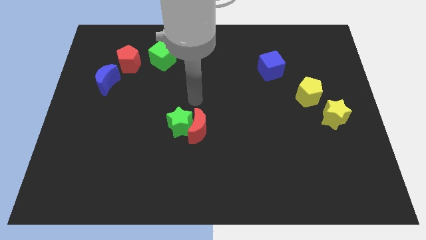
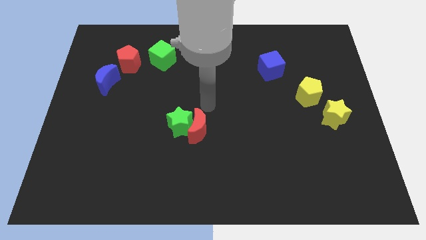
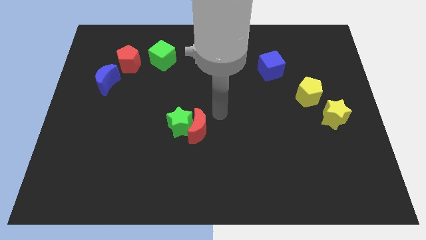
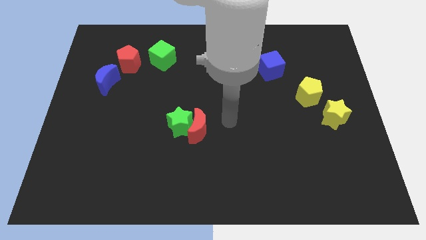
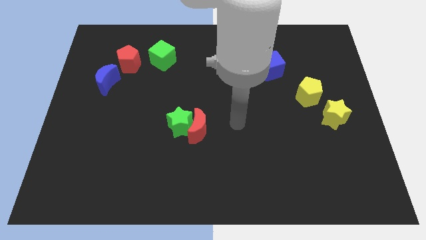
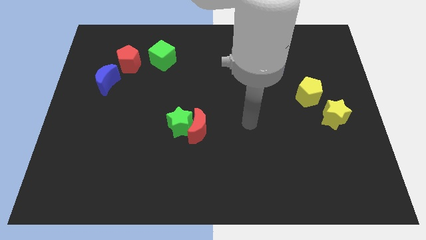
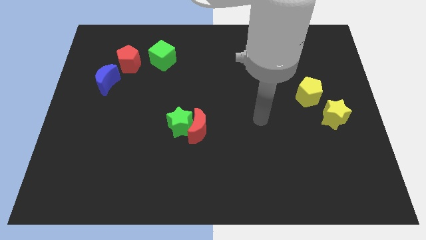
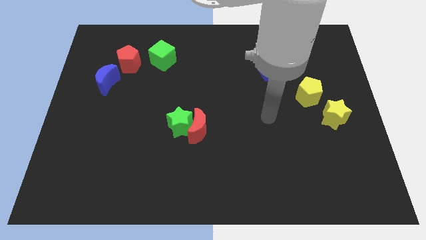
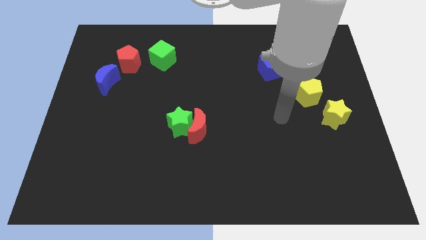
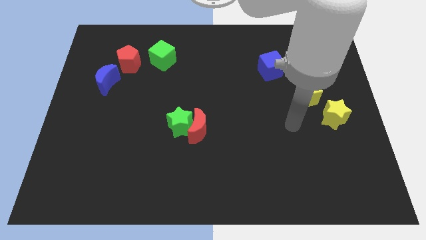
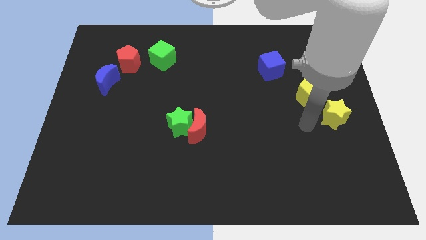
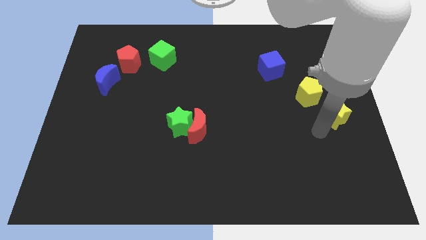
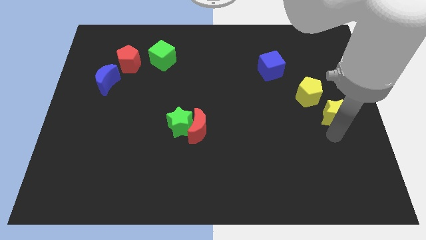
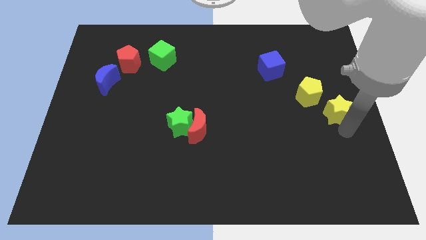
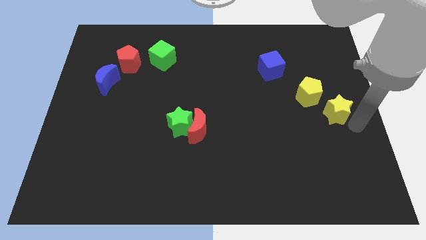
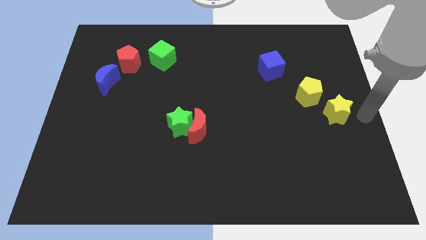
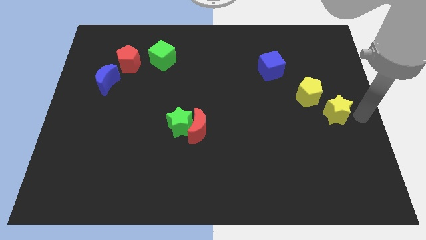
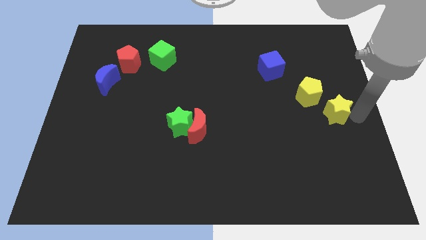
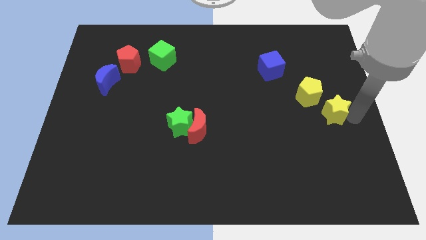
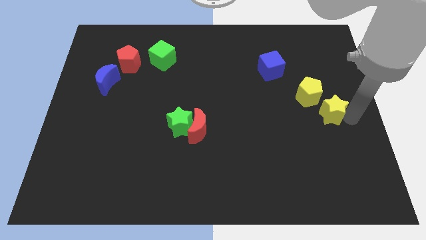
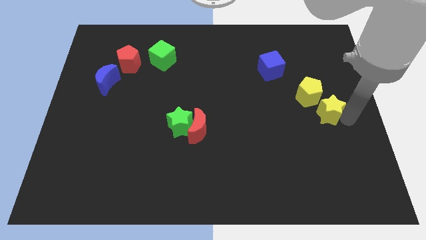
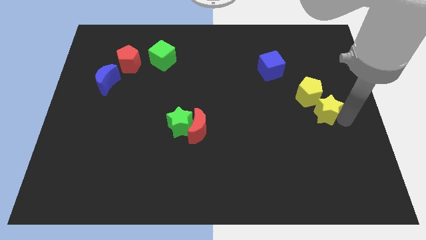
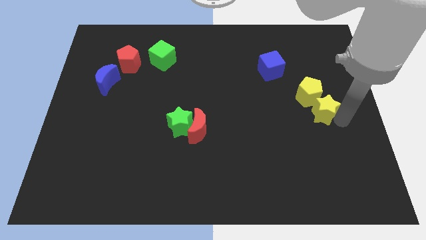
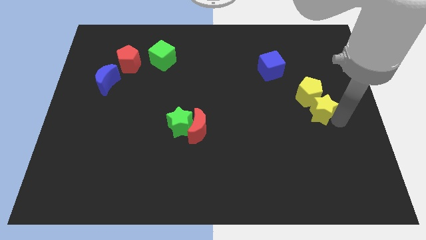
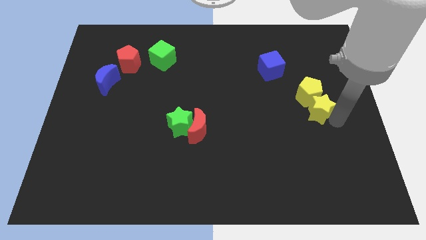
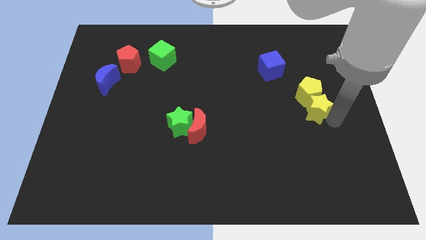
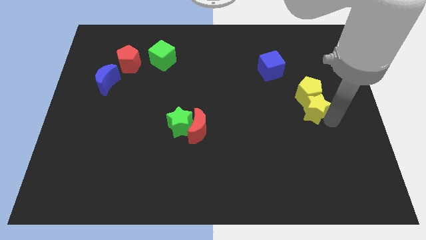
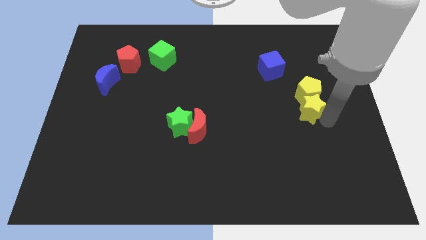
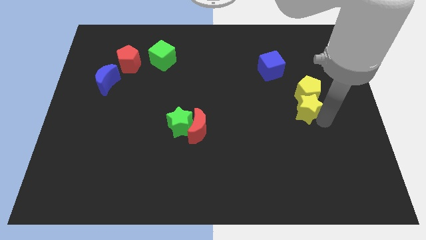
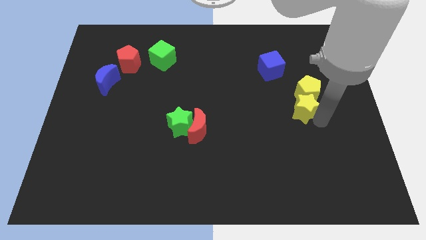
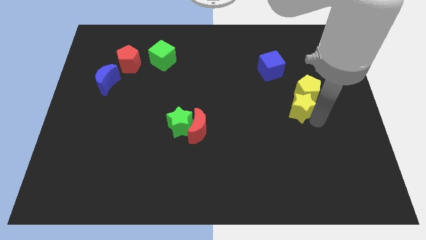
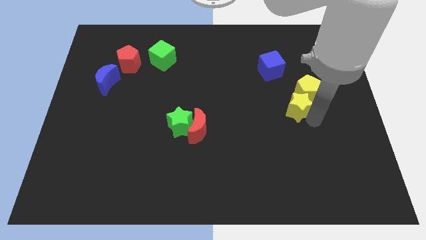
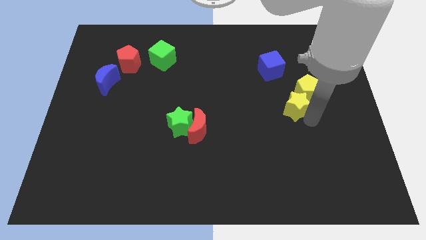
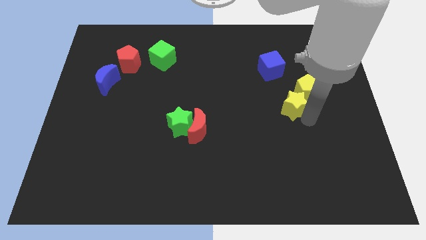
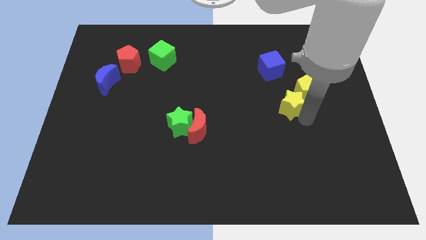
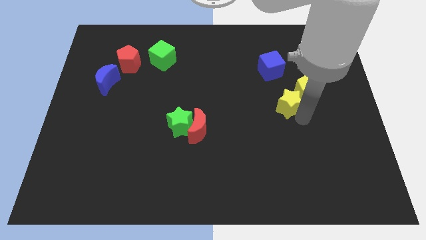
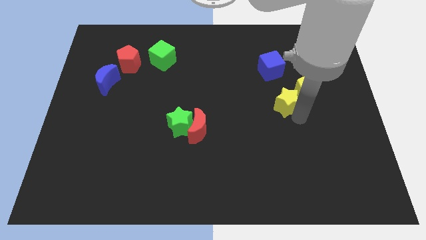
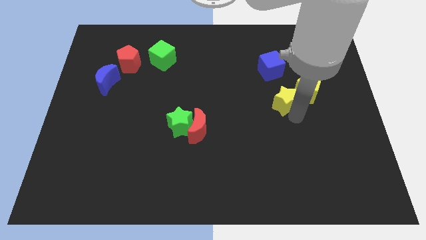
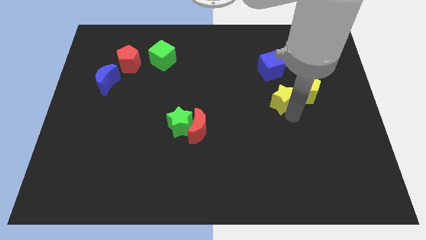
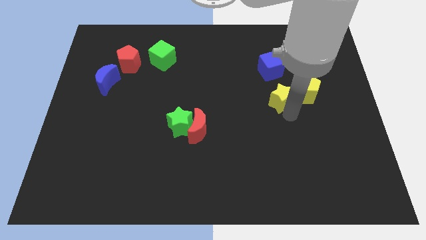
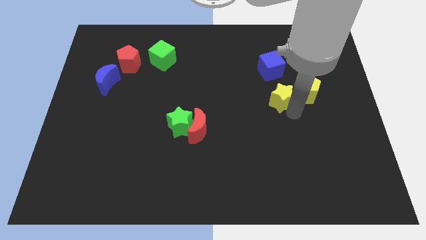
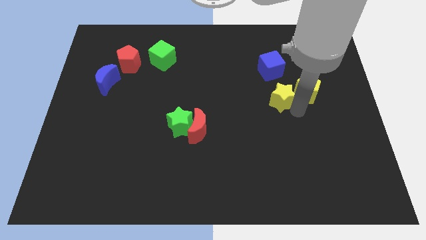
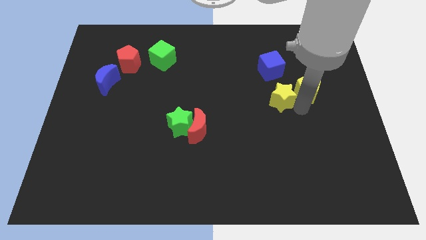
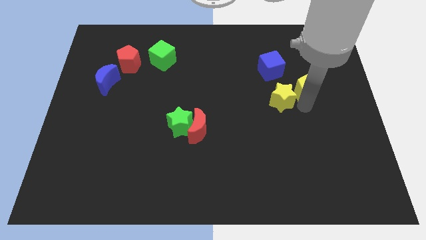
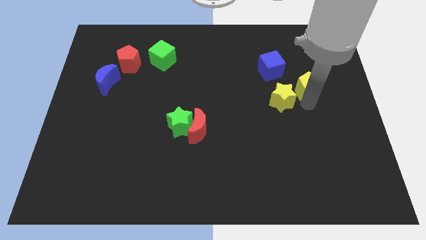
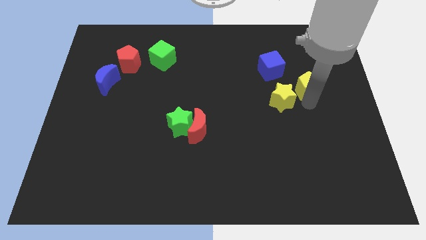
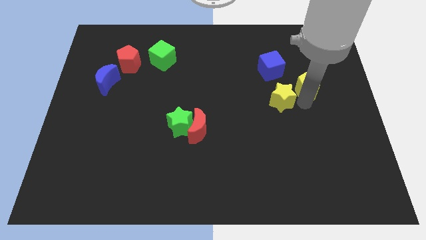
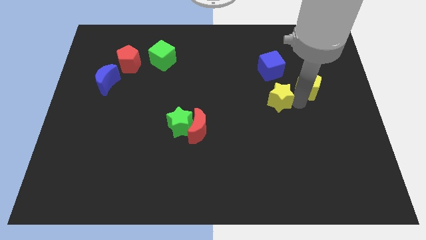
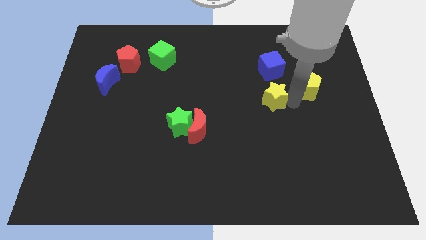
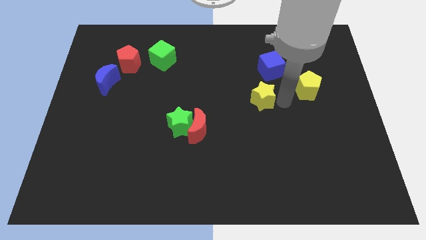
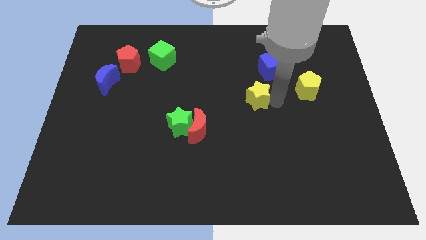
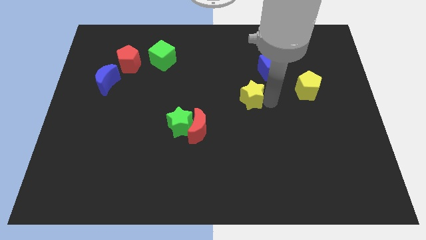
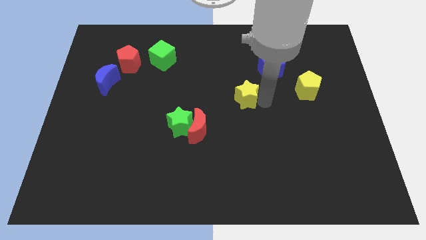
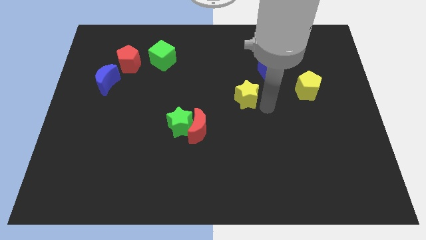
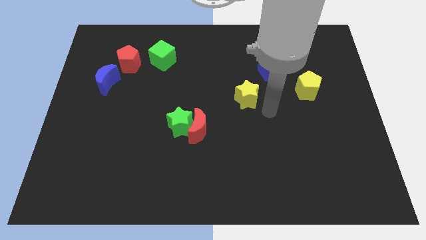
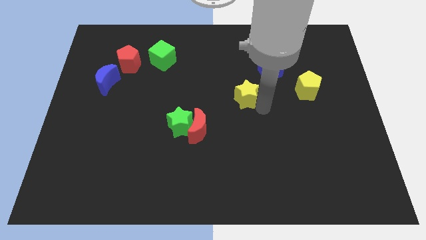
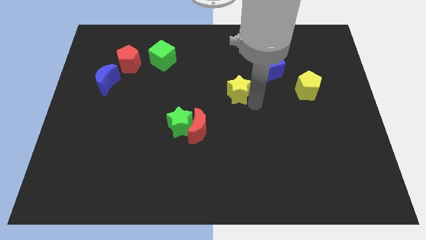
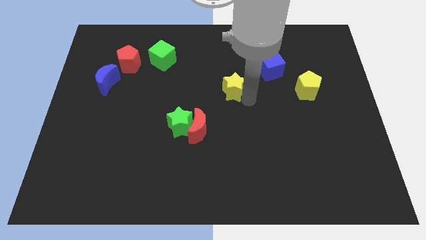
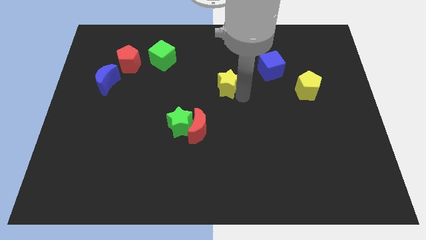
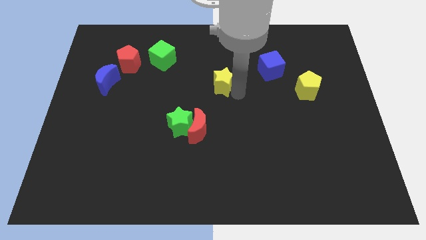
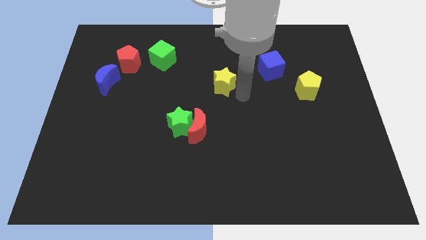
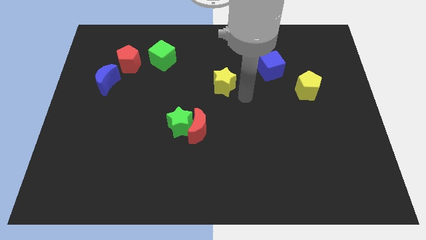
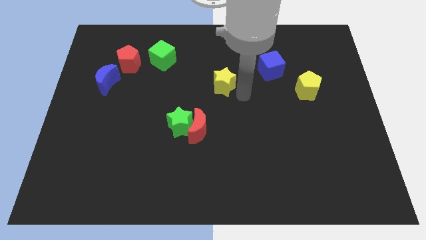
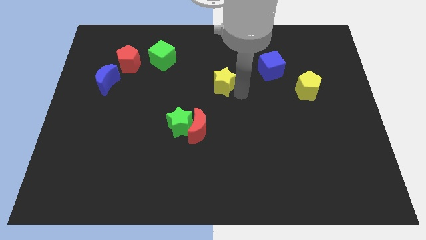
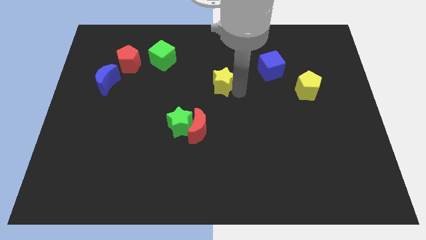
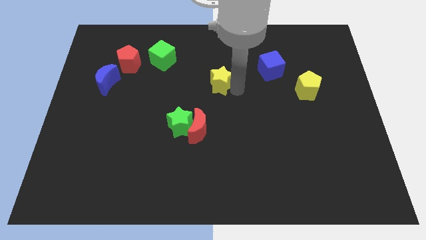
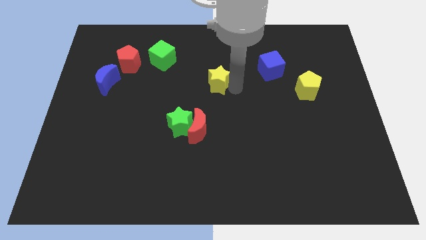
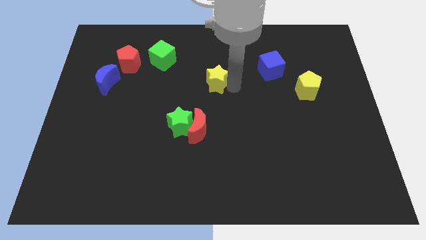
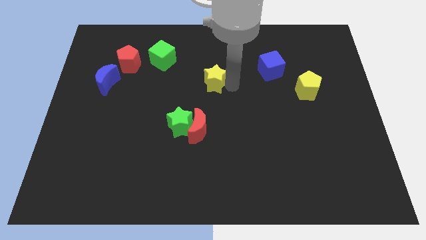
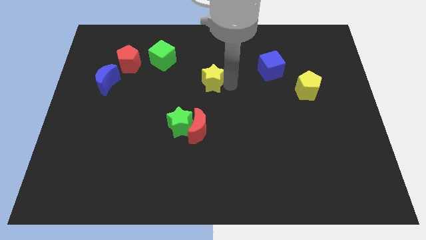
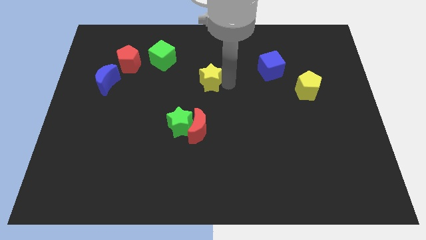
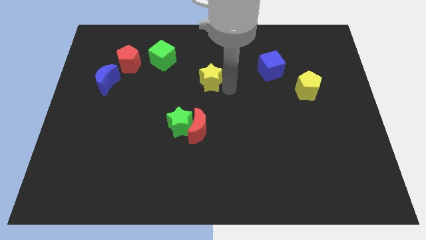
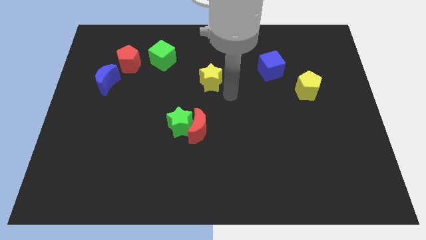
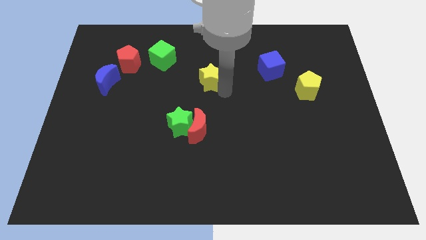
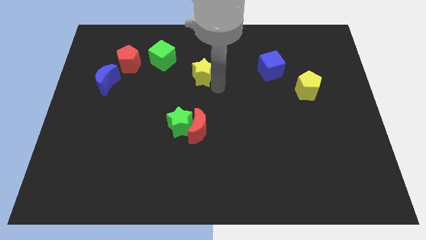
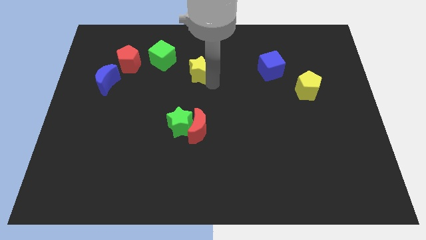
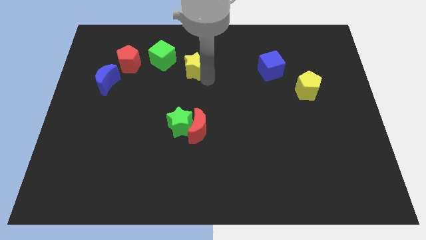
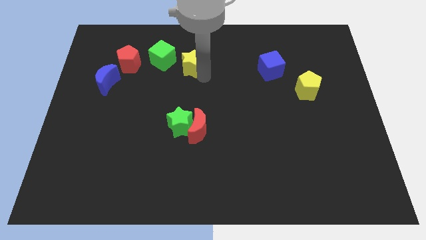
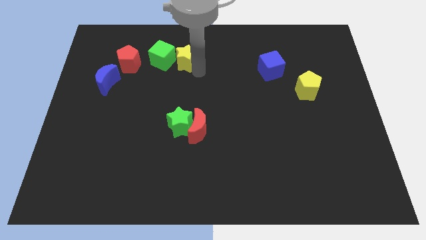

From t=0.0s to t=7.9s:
slide the yellow star towards the green cube
